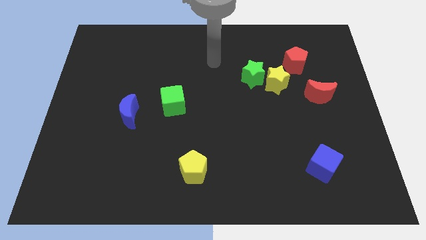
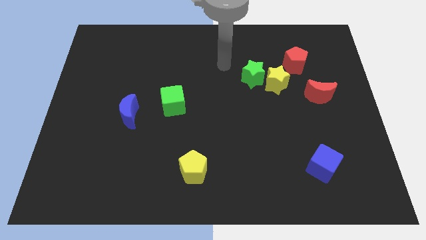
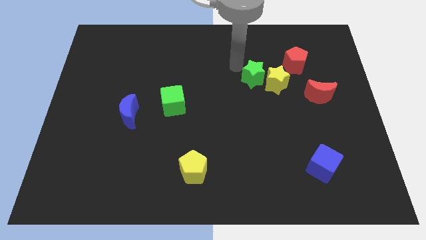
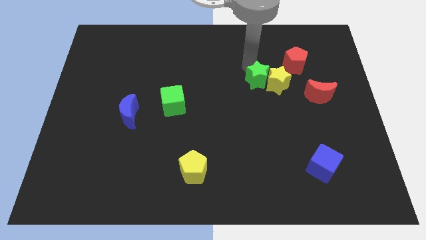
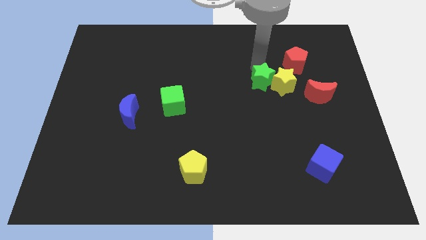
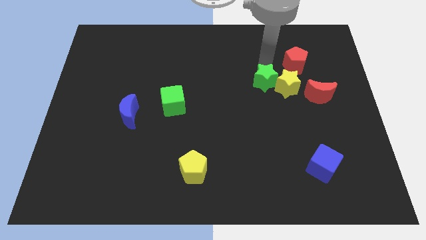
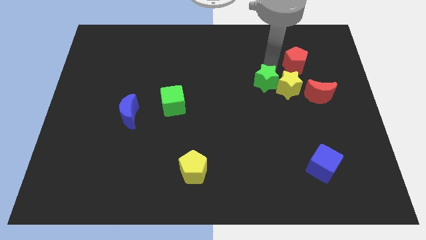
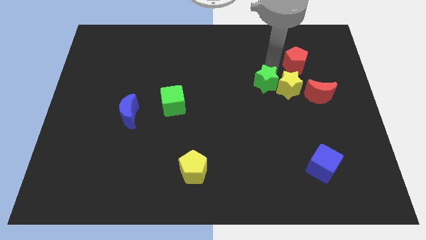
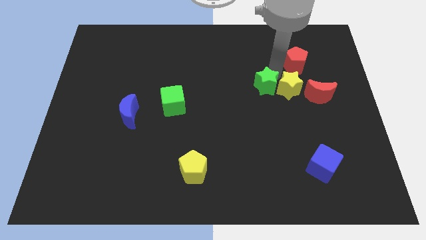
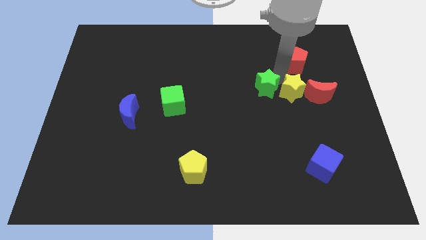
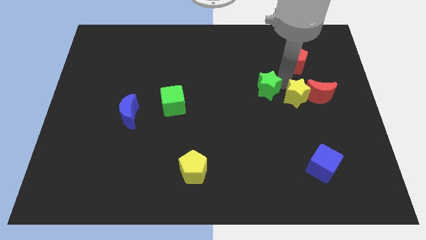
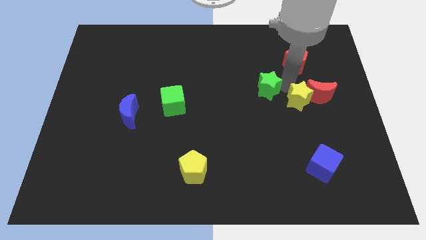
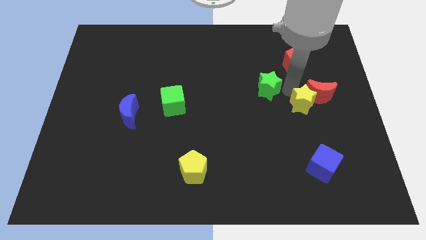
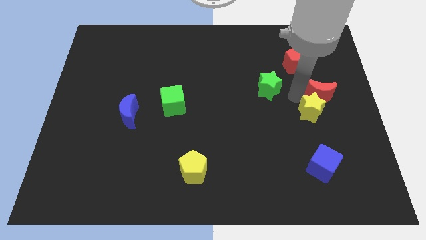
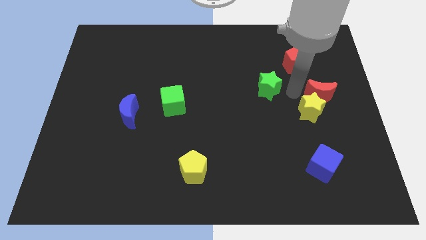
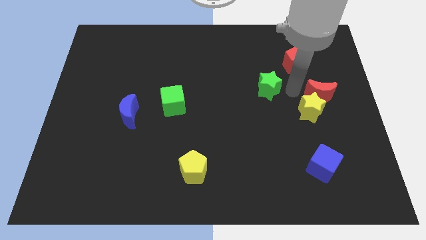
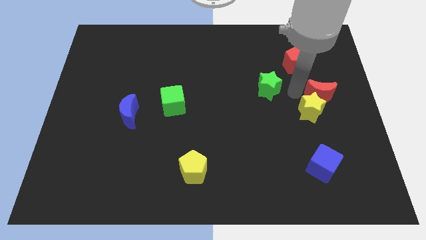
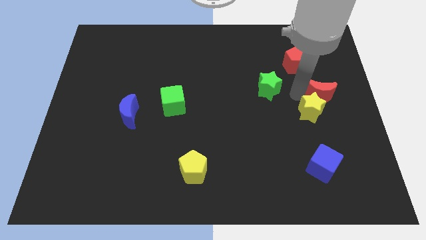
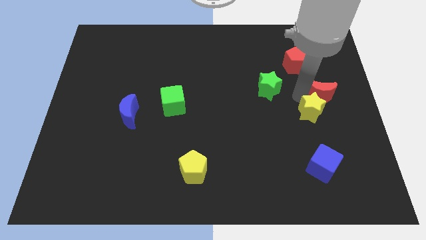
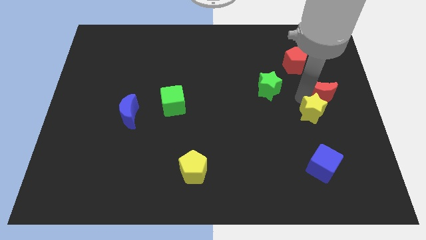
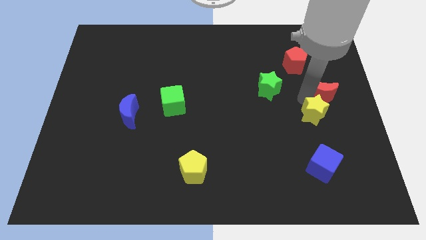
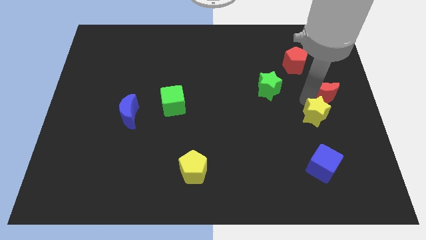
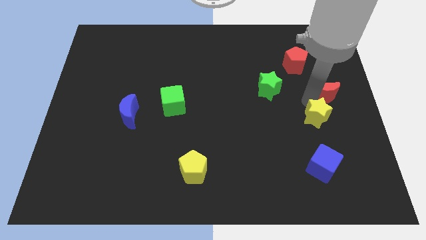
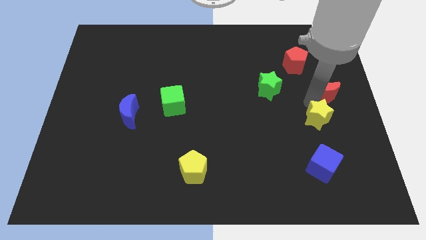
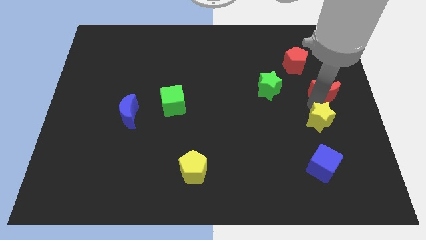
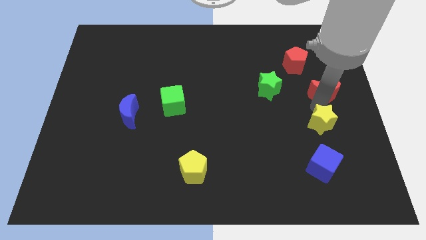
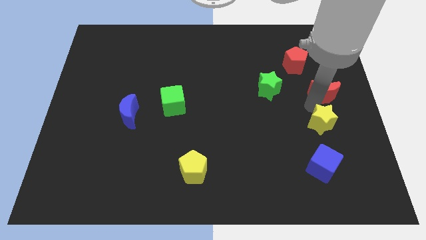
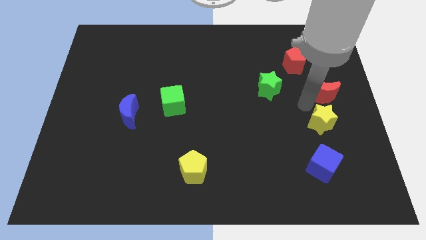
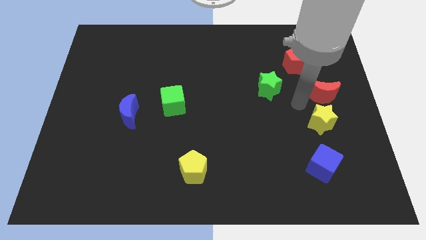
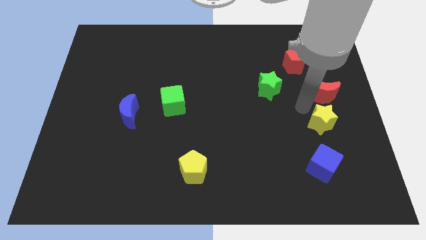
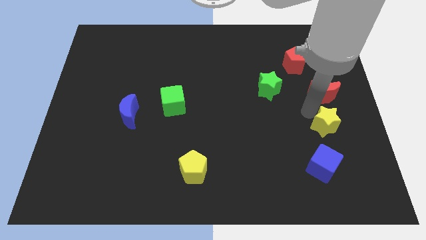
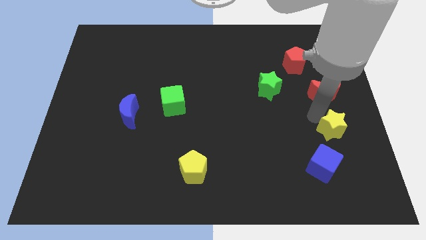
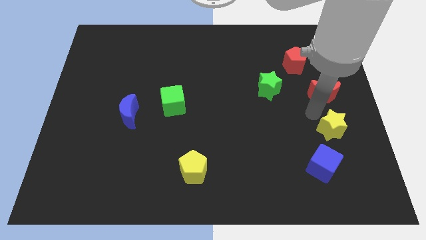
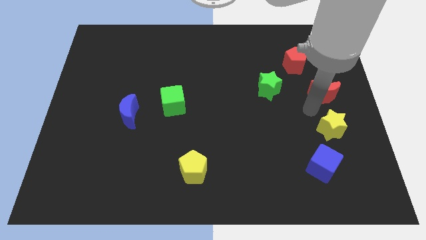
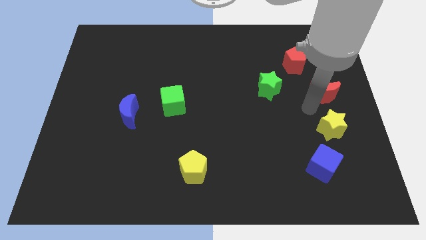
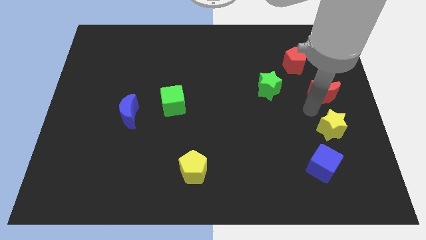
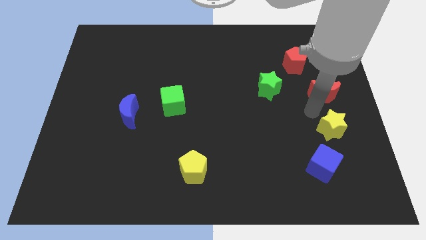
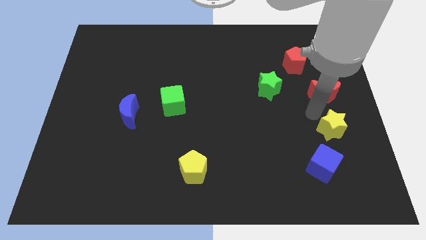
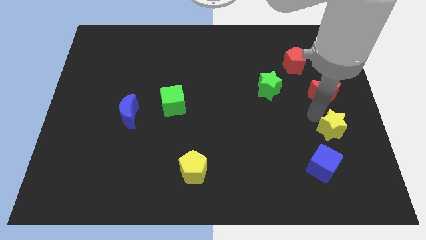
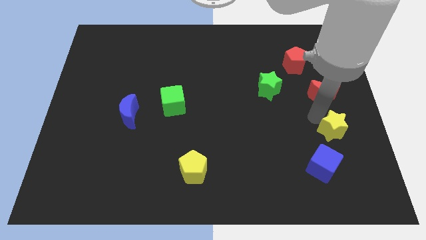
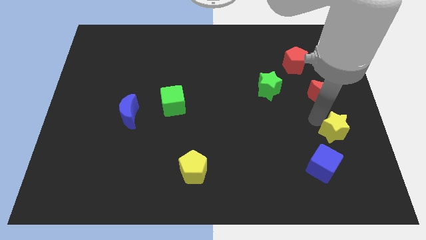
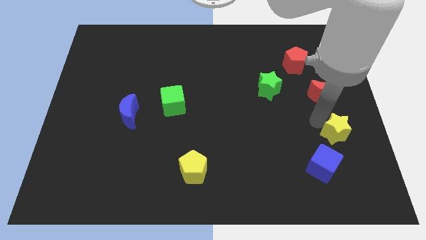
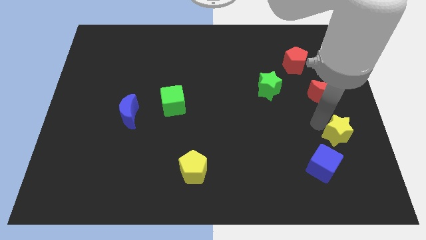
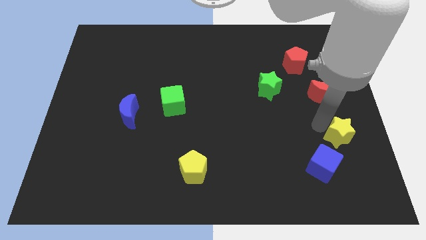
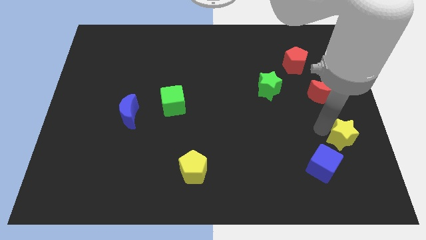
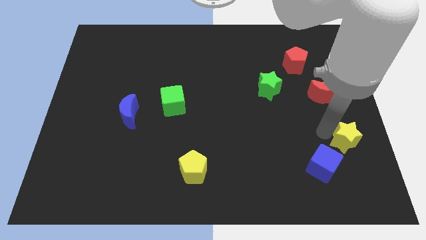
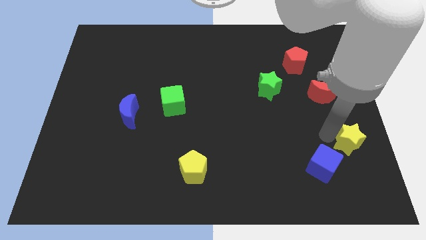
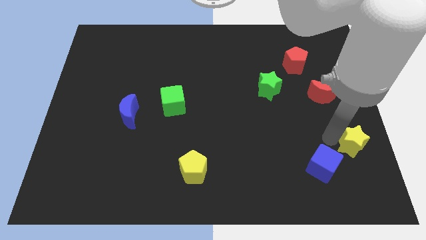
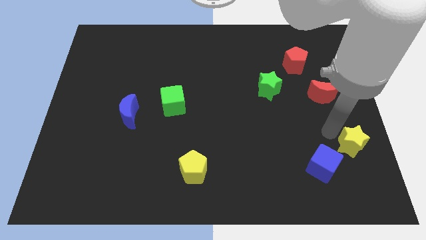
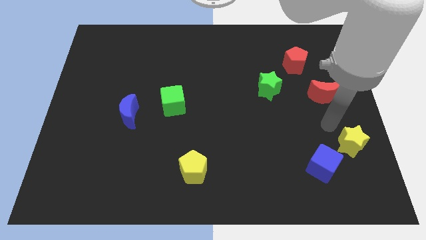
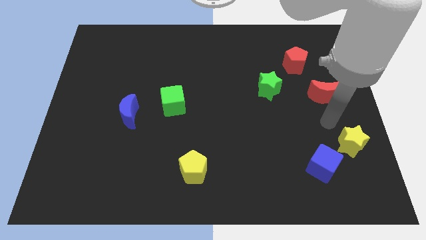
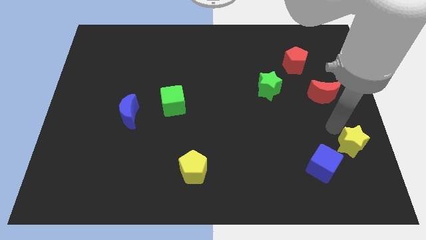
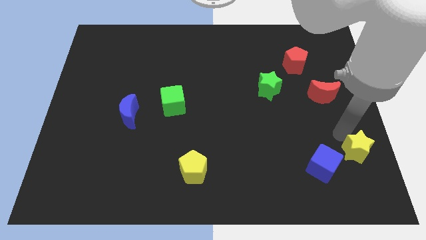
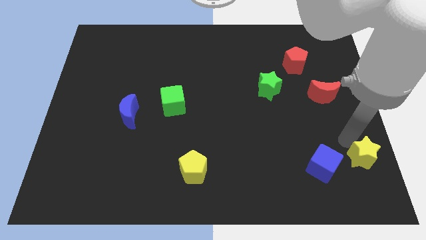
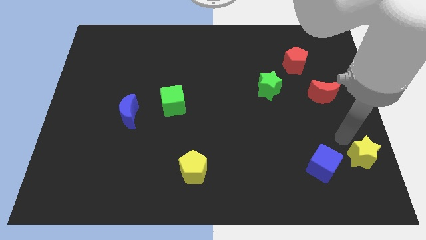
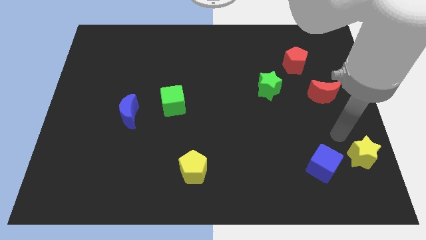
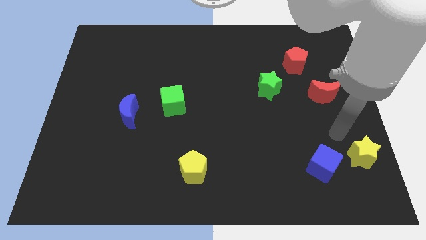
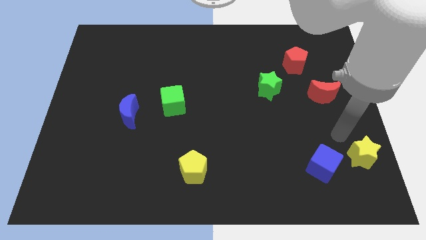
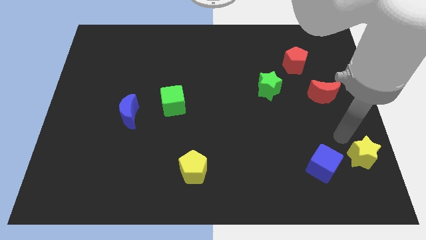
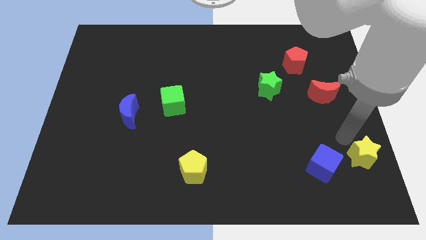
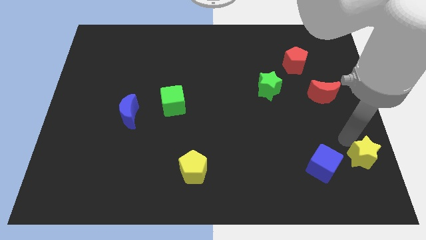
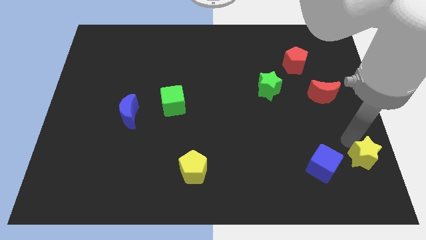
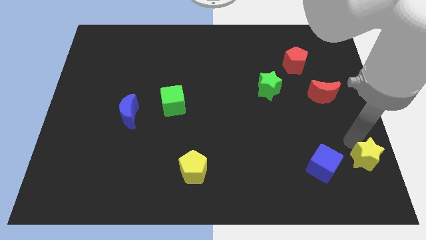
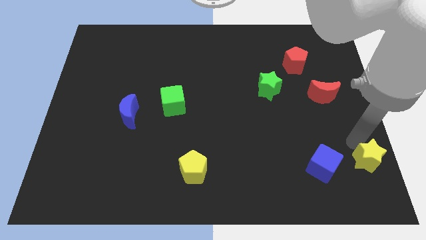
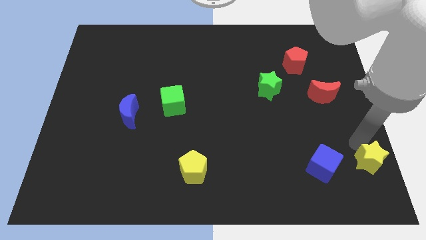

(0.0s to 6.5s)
slide the yellow star to the lower right corner
